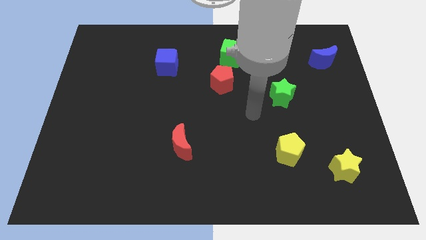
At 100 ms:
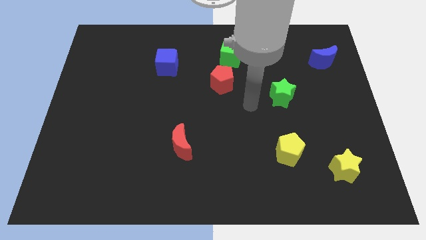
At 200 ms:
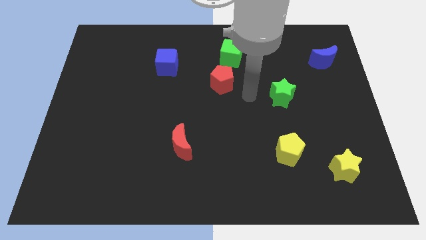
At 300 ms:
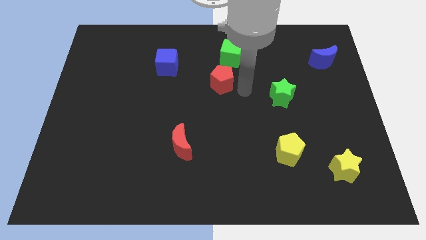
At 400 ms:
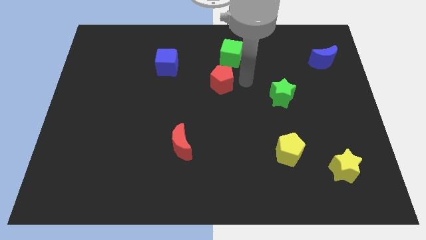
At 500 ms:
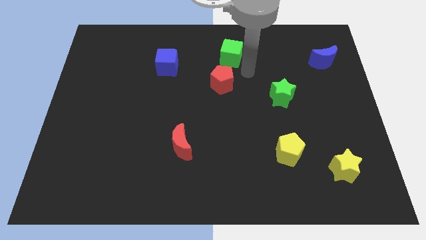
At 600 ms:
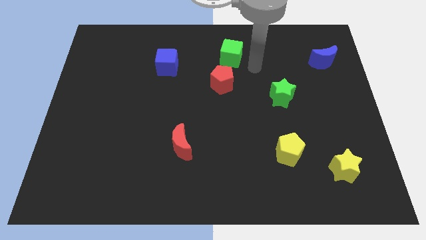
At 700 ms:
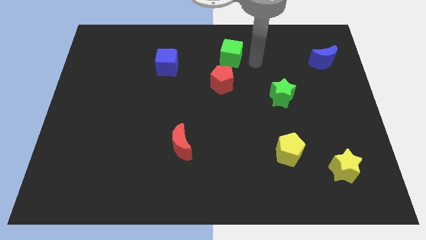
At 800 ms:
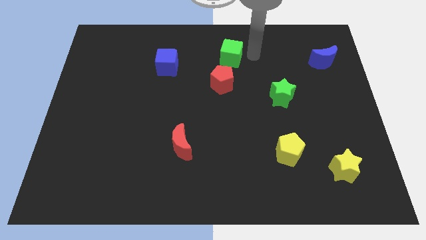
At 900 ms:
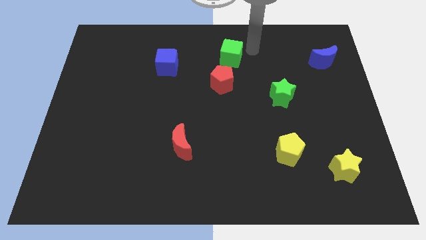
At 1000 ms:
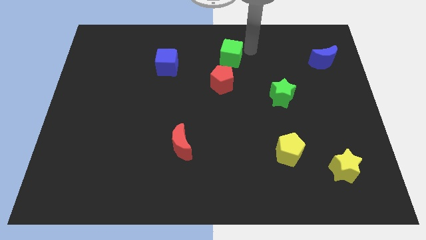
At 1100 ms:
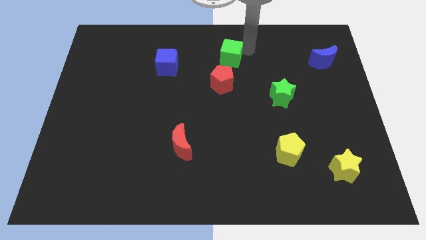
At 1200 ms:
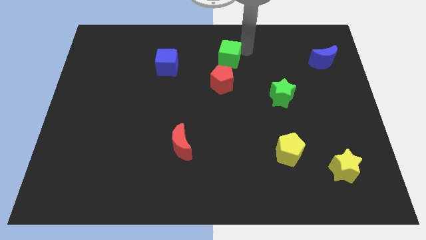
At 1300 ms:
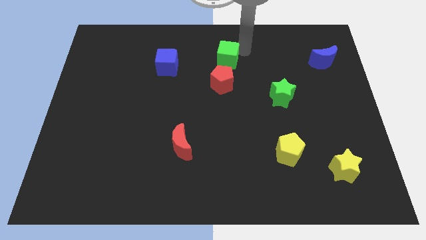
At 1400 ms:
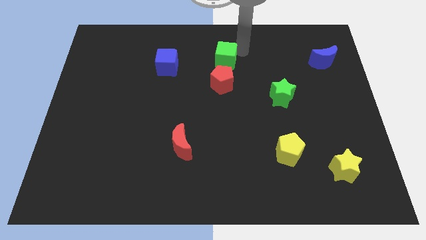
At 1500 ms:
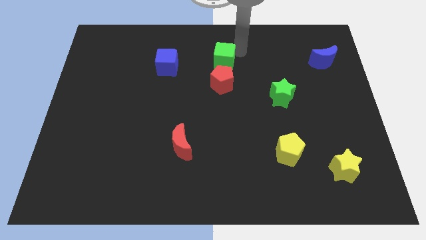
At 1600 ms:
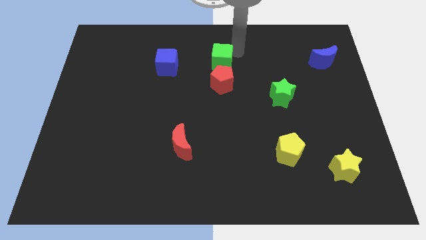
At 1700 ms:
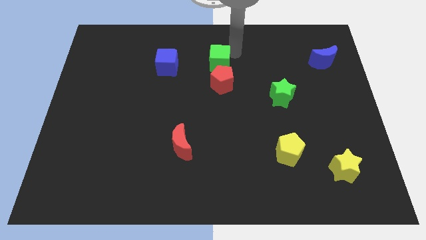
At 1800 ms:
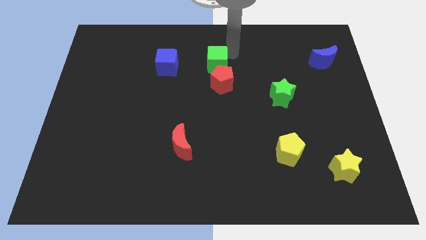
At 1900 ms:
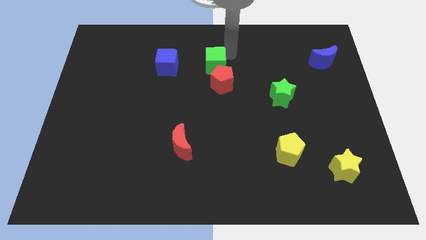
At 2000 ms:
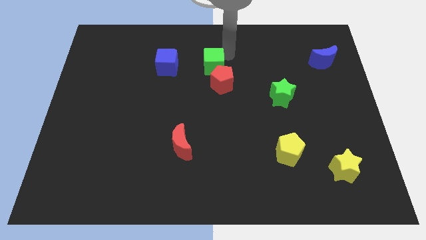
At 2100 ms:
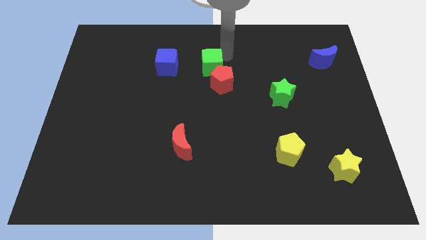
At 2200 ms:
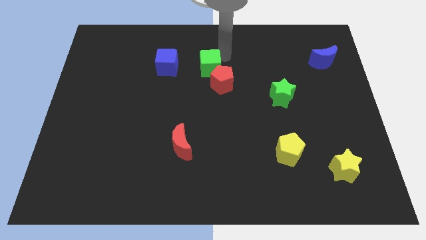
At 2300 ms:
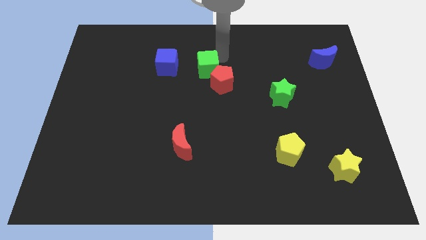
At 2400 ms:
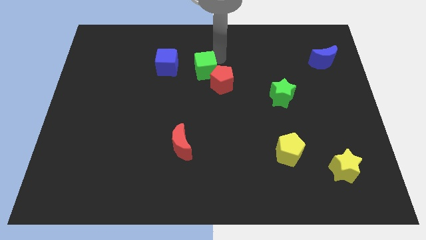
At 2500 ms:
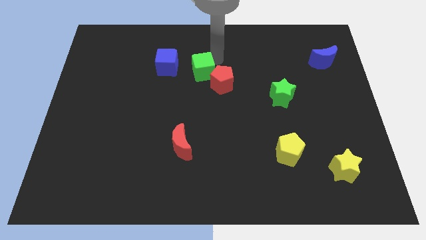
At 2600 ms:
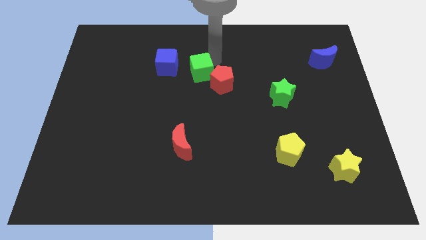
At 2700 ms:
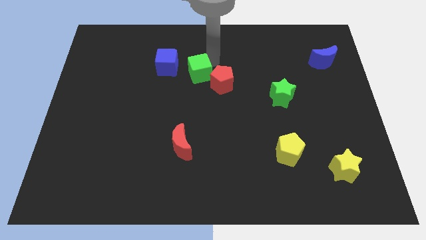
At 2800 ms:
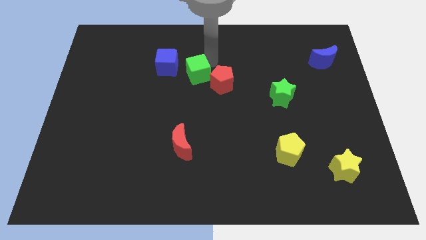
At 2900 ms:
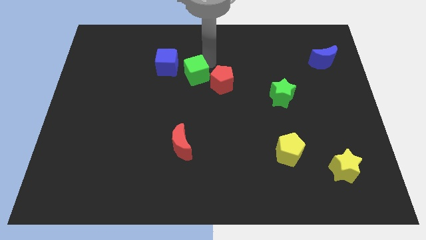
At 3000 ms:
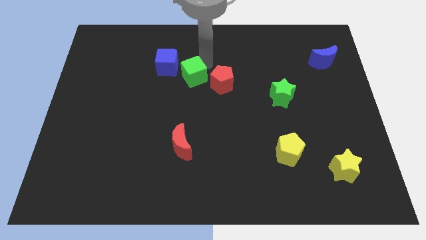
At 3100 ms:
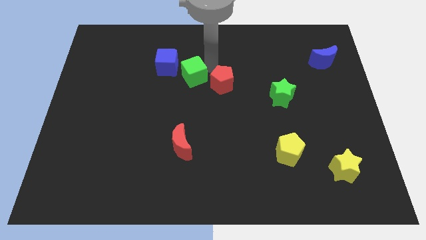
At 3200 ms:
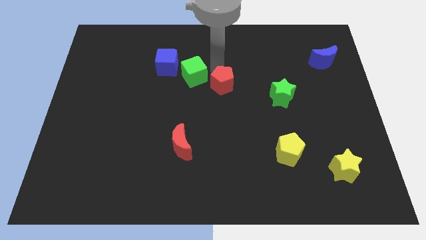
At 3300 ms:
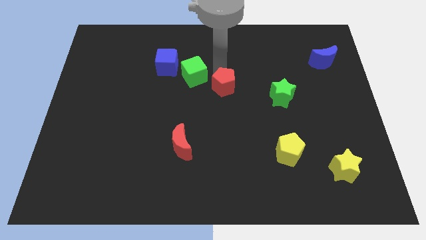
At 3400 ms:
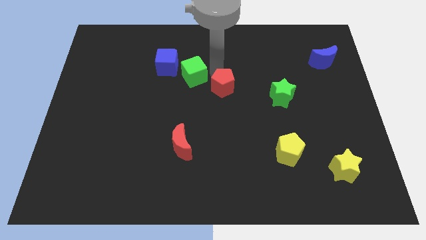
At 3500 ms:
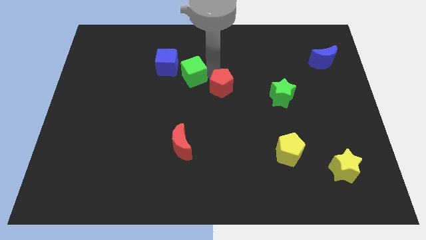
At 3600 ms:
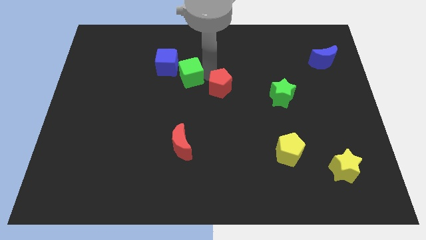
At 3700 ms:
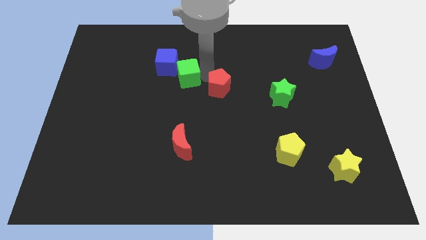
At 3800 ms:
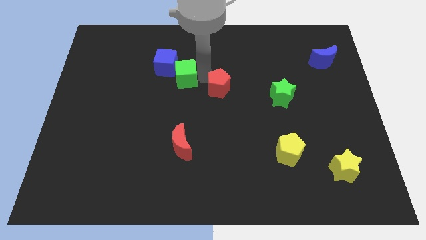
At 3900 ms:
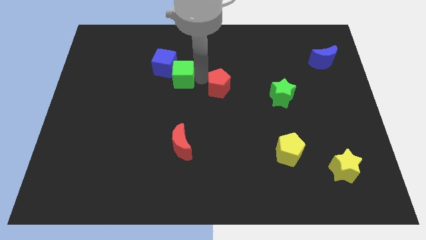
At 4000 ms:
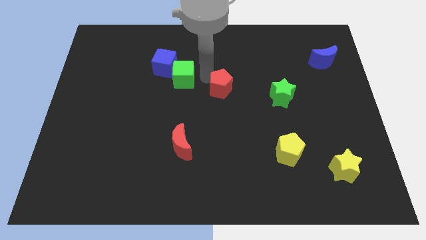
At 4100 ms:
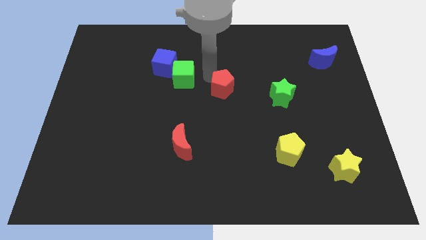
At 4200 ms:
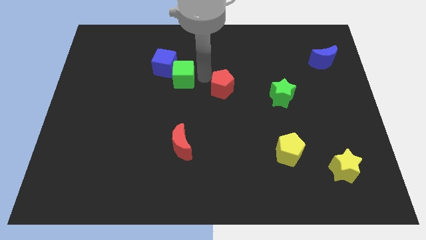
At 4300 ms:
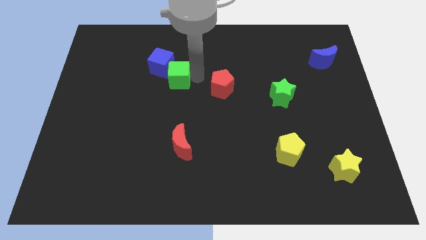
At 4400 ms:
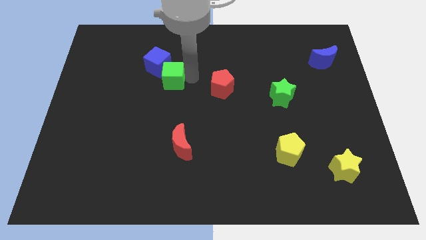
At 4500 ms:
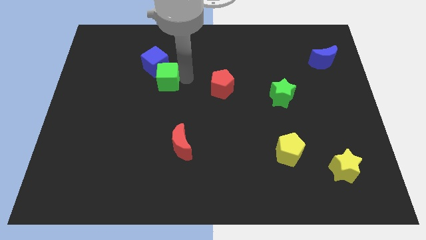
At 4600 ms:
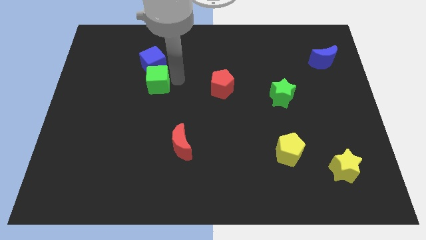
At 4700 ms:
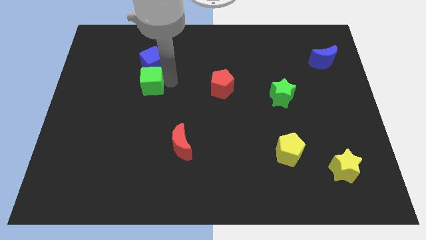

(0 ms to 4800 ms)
push the green cube diagonally down and to the left of the blue cube

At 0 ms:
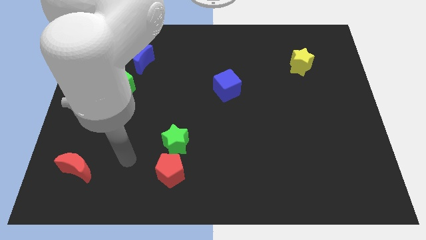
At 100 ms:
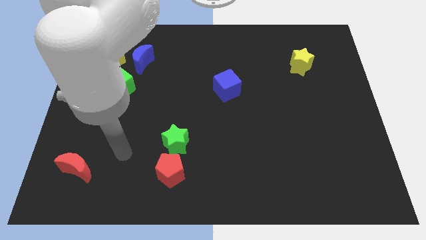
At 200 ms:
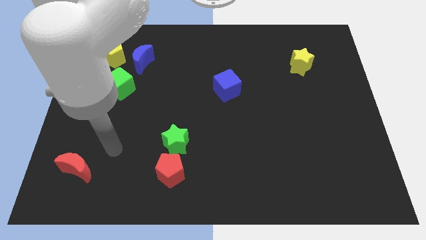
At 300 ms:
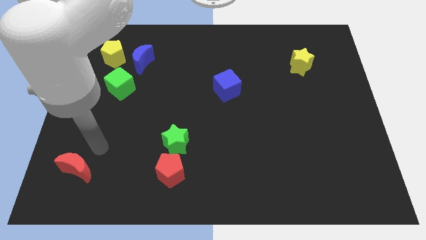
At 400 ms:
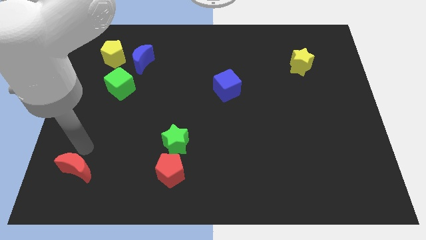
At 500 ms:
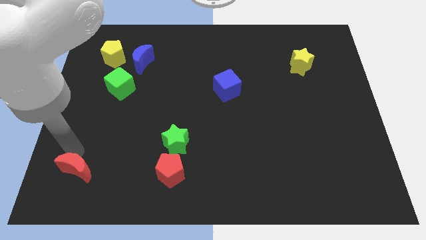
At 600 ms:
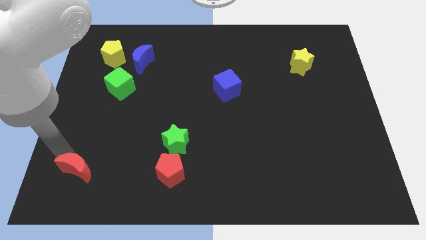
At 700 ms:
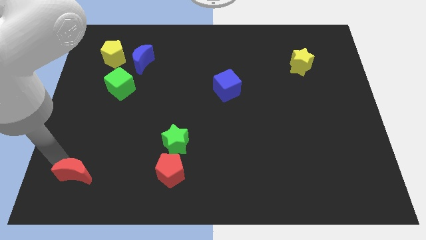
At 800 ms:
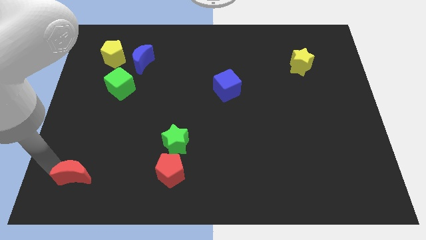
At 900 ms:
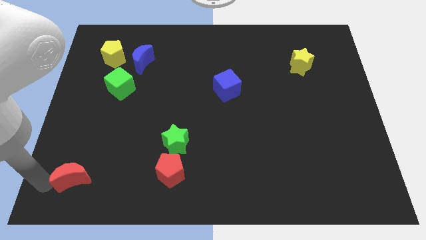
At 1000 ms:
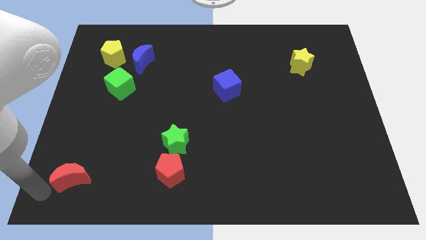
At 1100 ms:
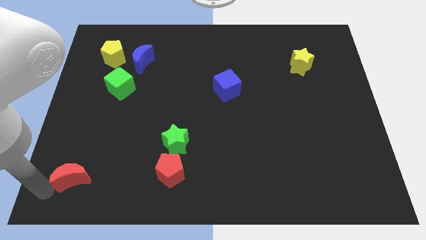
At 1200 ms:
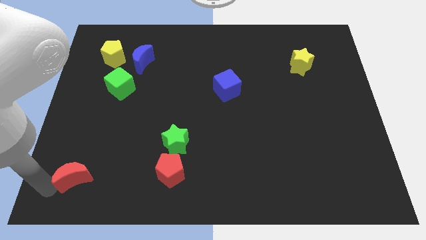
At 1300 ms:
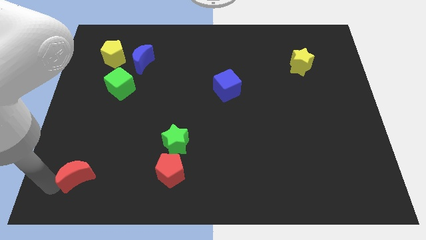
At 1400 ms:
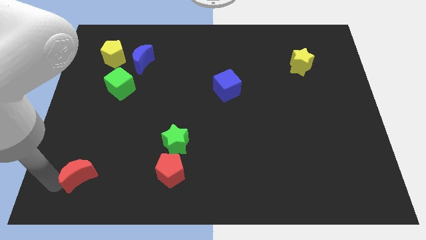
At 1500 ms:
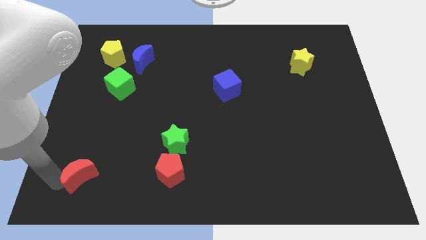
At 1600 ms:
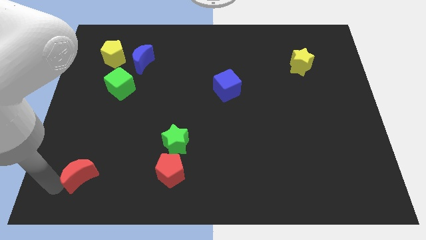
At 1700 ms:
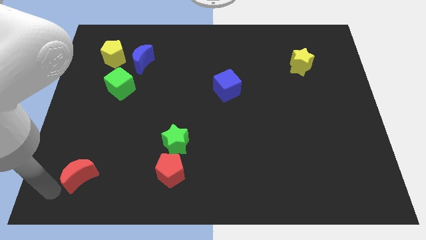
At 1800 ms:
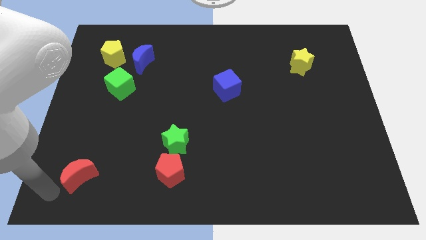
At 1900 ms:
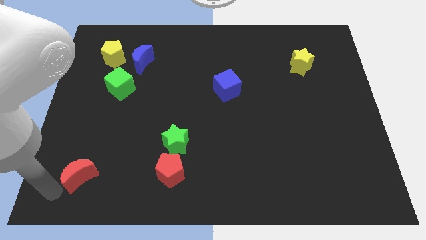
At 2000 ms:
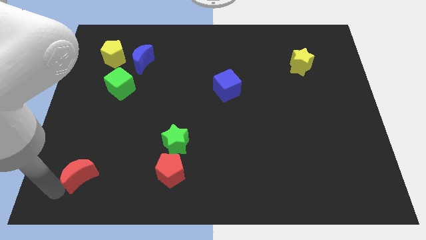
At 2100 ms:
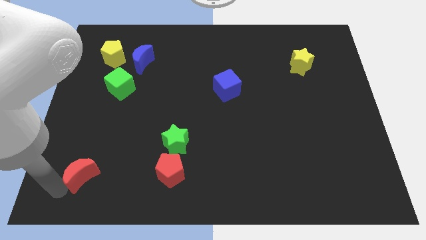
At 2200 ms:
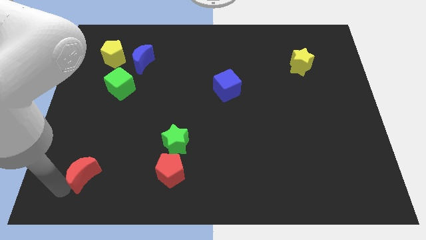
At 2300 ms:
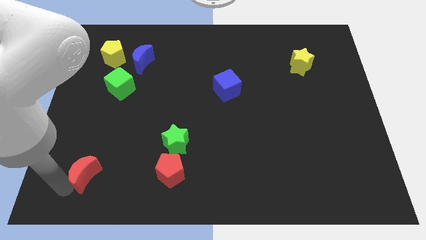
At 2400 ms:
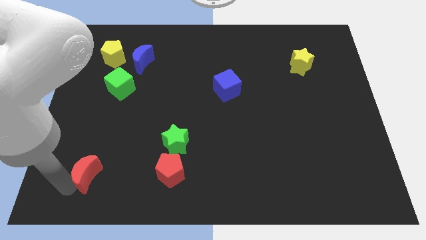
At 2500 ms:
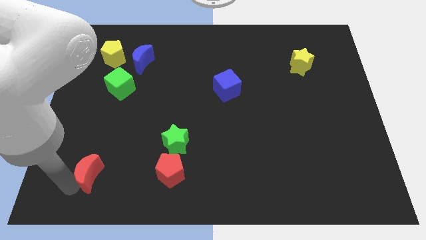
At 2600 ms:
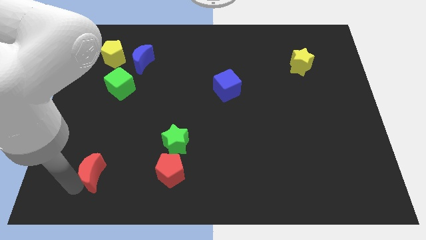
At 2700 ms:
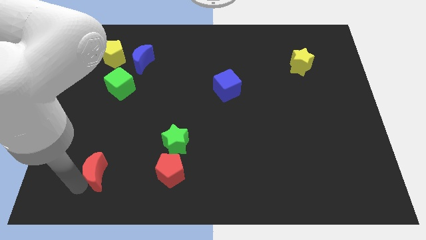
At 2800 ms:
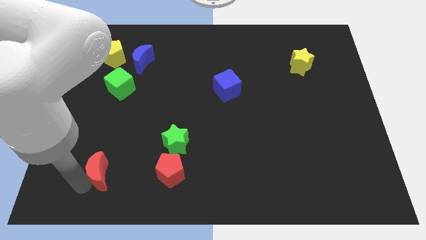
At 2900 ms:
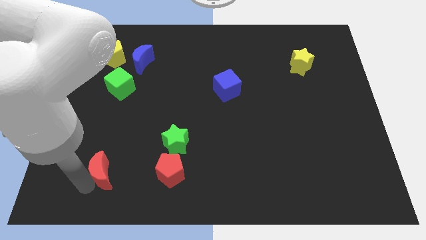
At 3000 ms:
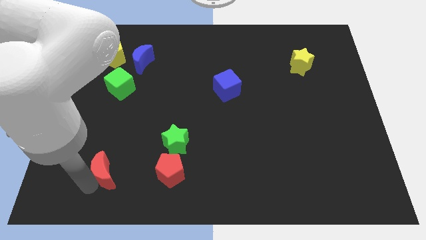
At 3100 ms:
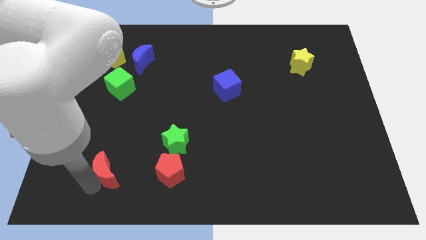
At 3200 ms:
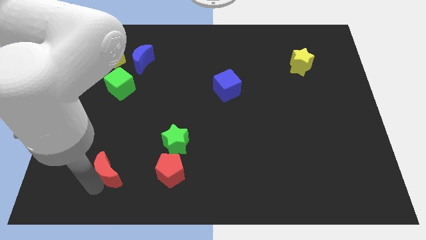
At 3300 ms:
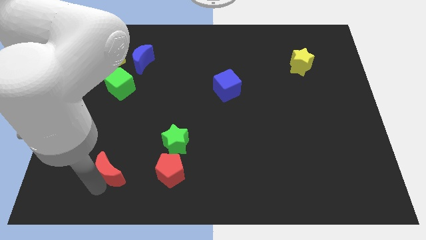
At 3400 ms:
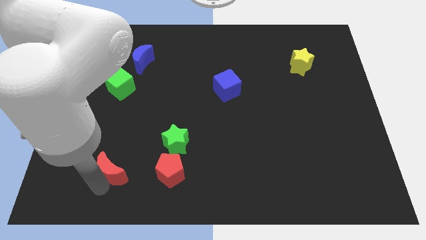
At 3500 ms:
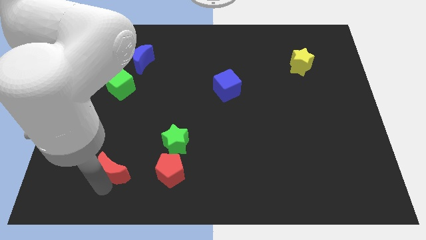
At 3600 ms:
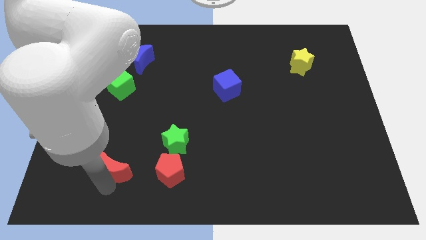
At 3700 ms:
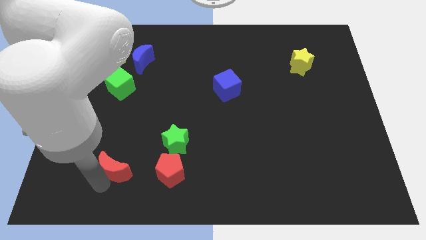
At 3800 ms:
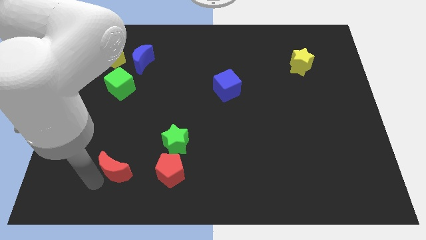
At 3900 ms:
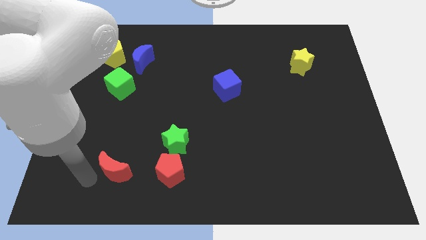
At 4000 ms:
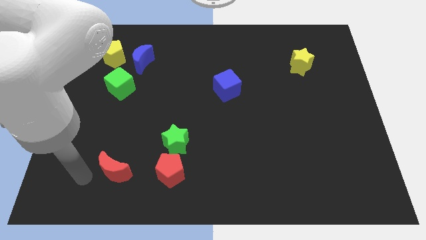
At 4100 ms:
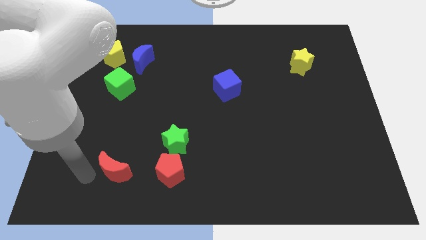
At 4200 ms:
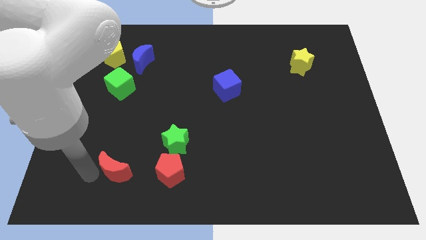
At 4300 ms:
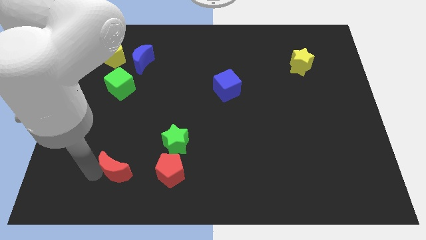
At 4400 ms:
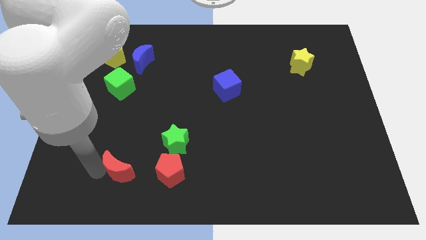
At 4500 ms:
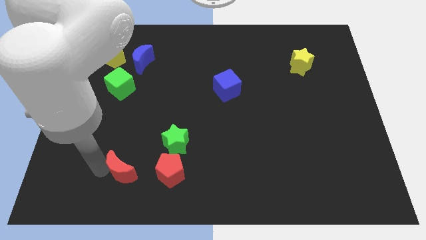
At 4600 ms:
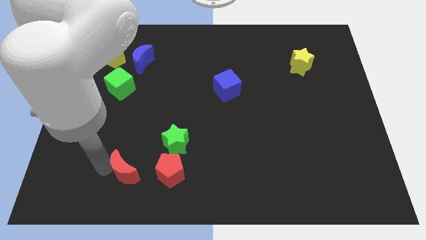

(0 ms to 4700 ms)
put the red moon to the bottom left of the green star
